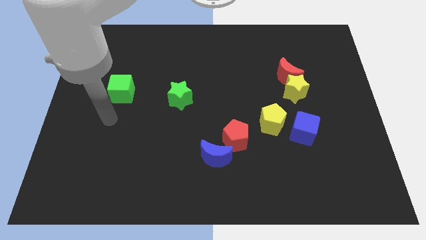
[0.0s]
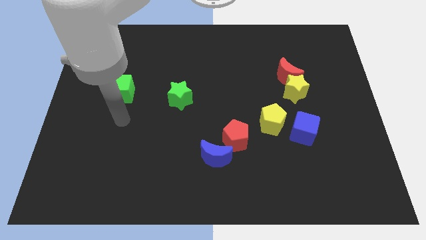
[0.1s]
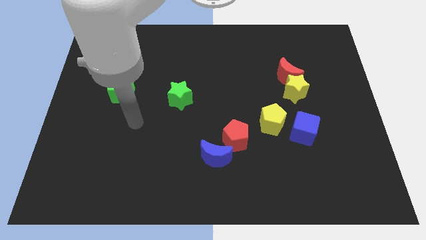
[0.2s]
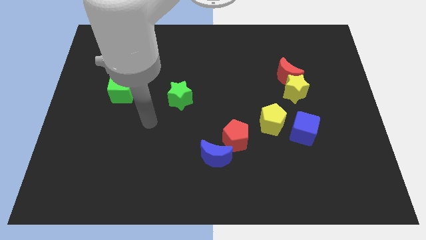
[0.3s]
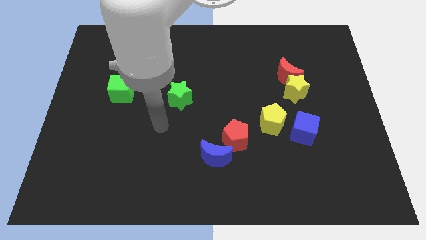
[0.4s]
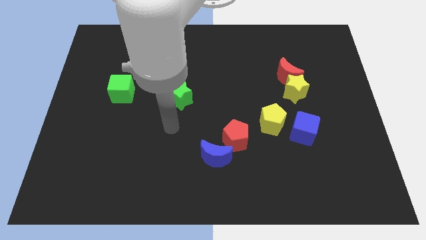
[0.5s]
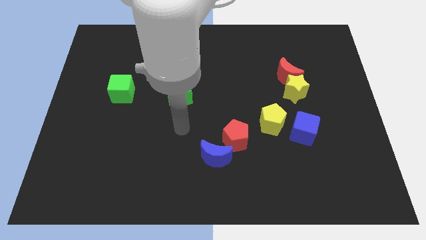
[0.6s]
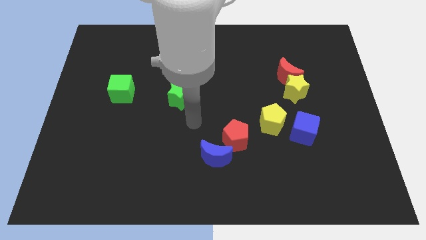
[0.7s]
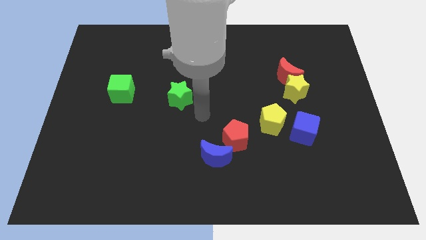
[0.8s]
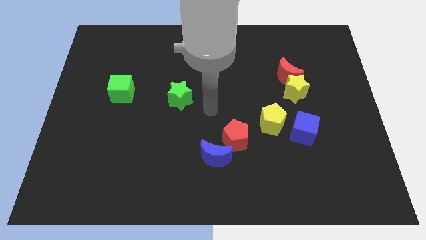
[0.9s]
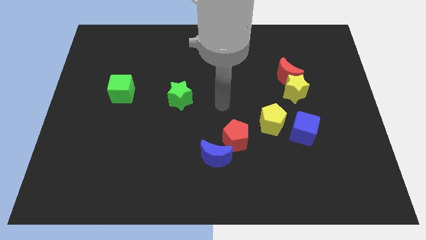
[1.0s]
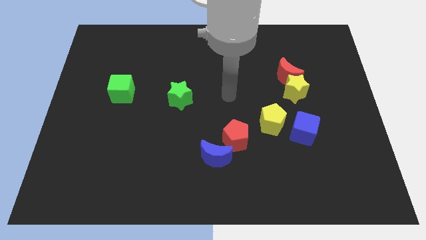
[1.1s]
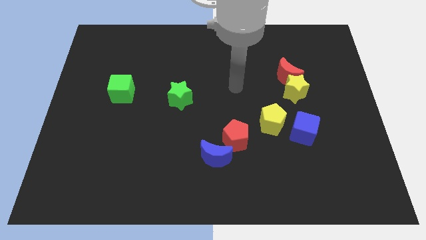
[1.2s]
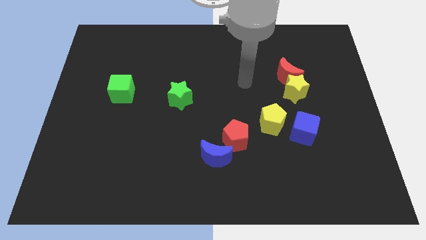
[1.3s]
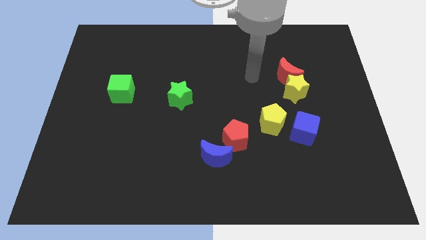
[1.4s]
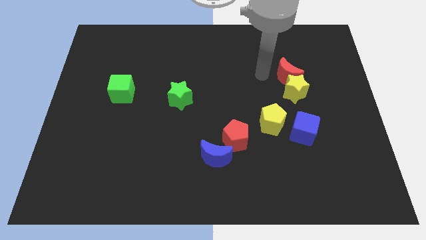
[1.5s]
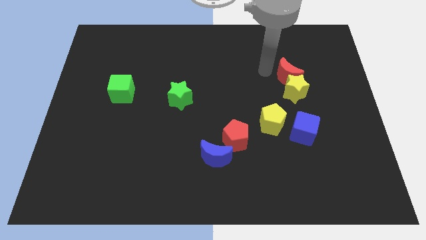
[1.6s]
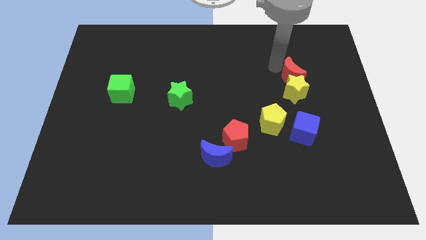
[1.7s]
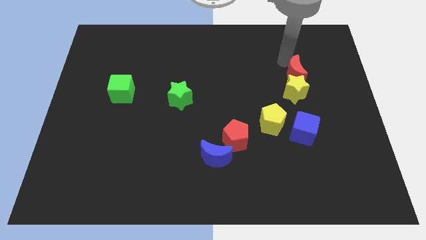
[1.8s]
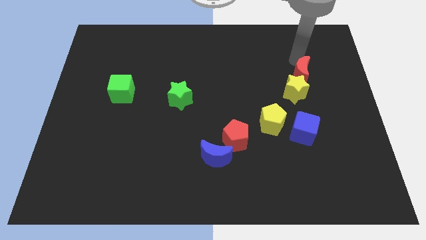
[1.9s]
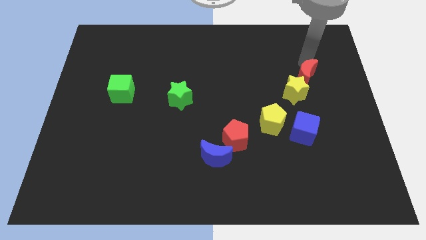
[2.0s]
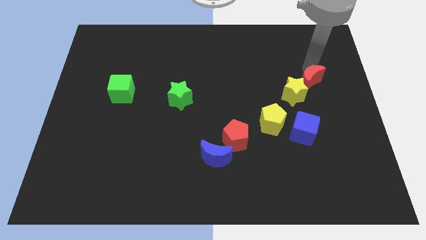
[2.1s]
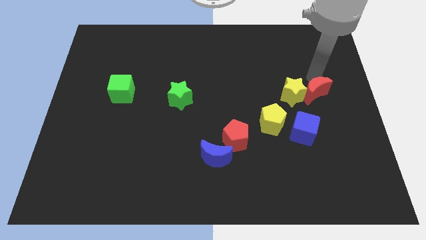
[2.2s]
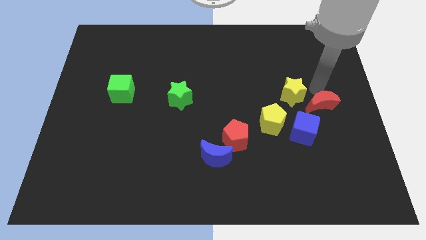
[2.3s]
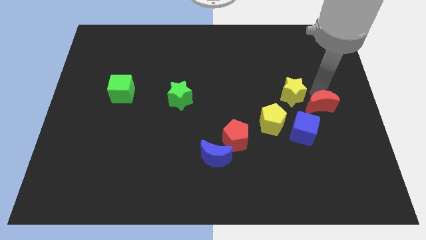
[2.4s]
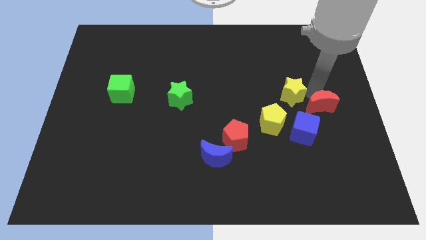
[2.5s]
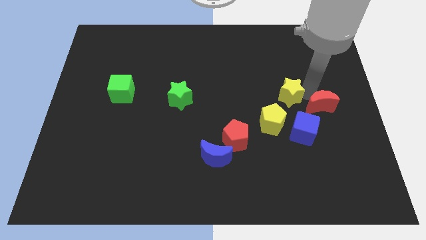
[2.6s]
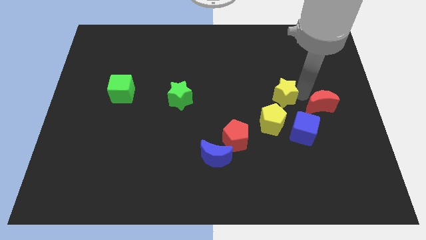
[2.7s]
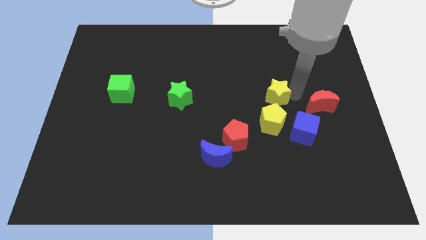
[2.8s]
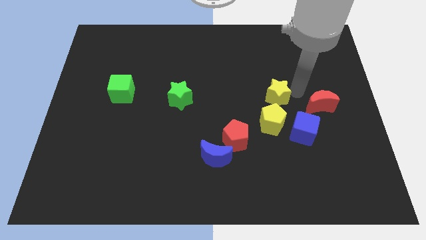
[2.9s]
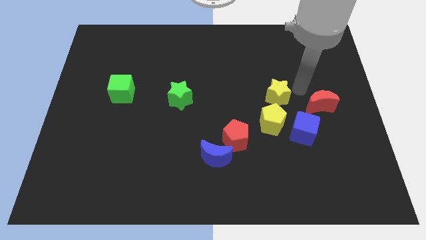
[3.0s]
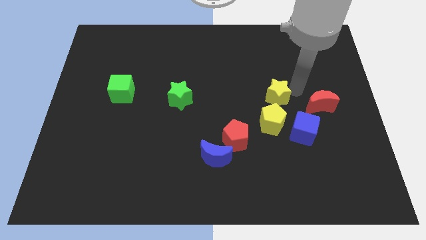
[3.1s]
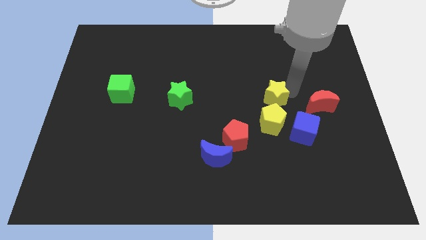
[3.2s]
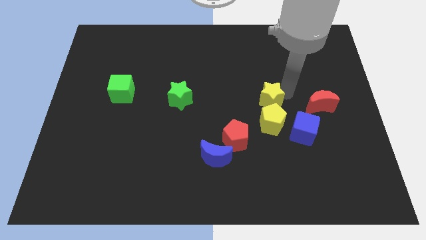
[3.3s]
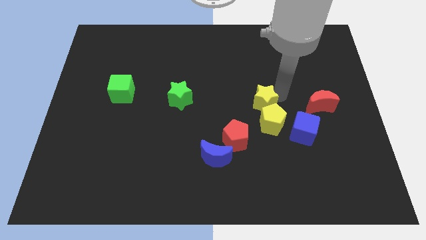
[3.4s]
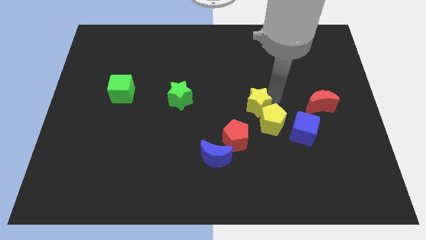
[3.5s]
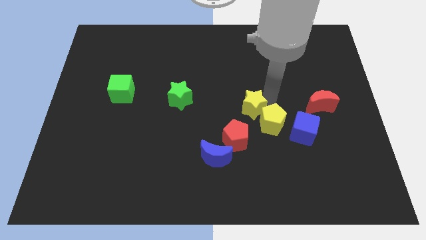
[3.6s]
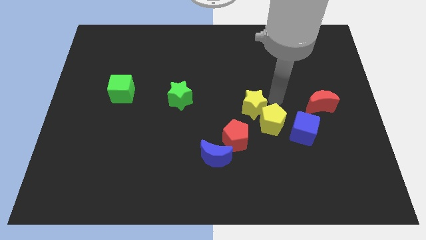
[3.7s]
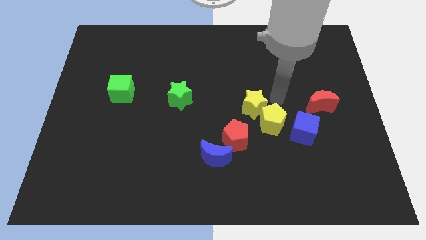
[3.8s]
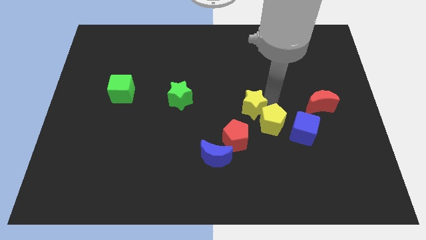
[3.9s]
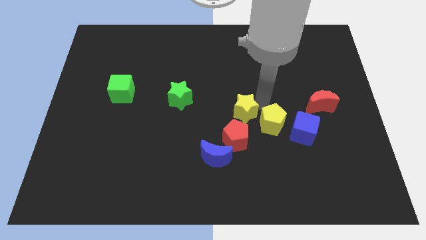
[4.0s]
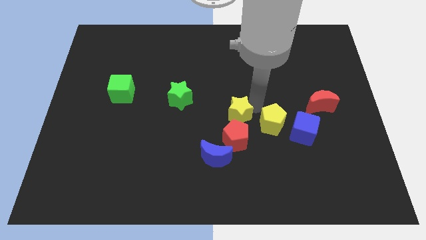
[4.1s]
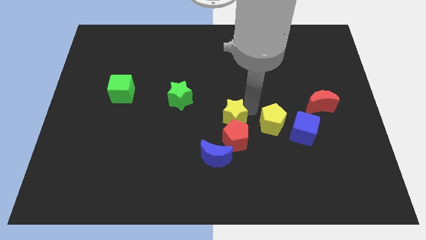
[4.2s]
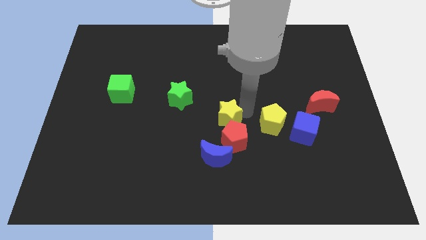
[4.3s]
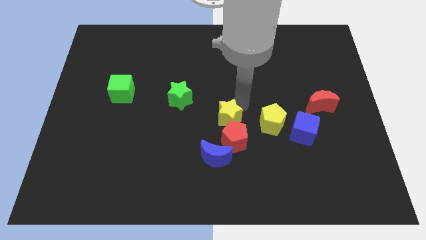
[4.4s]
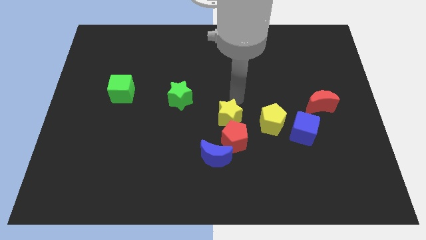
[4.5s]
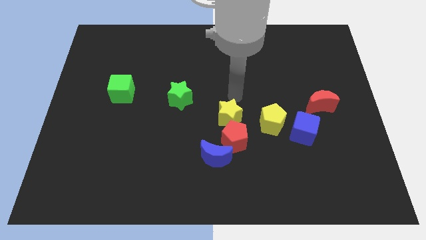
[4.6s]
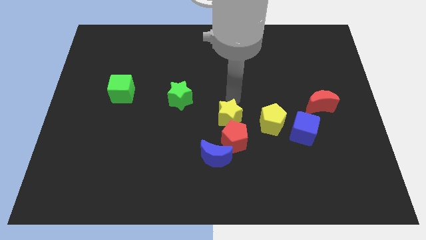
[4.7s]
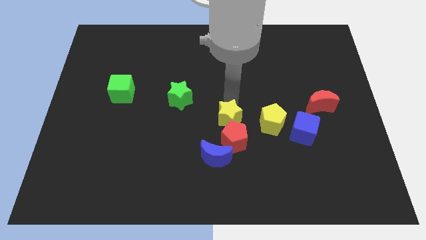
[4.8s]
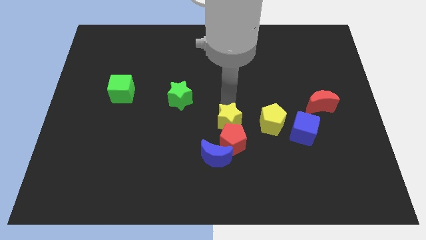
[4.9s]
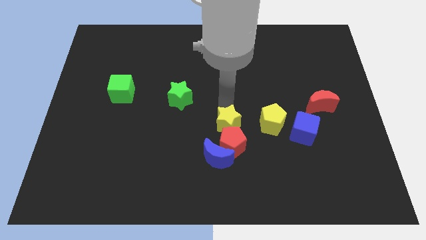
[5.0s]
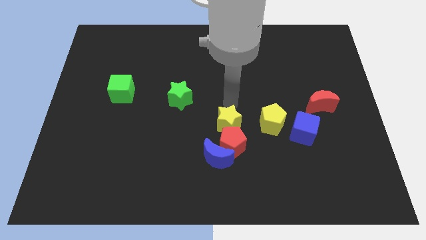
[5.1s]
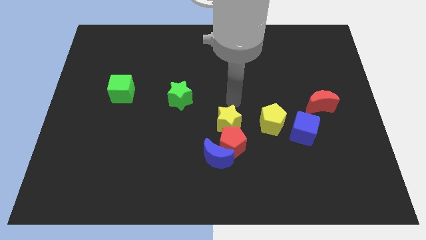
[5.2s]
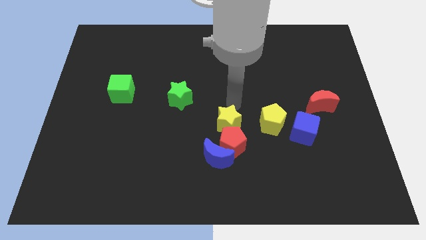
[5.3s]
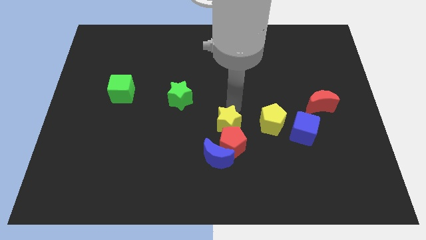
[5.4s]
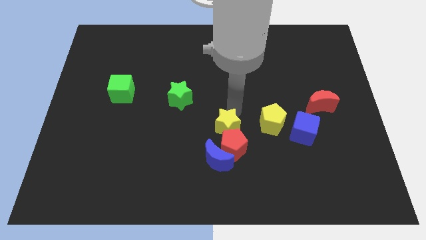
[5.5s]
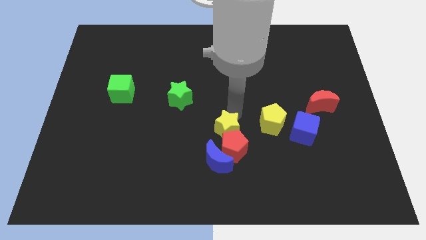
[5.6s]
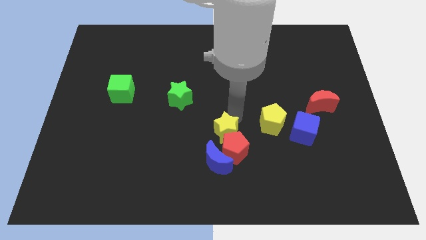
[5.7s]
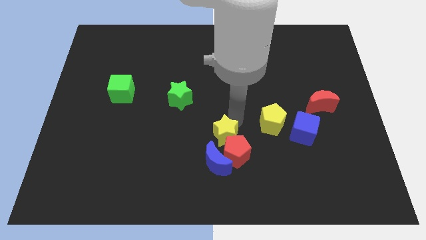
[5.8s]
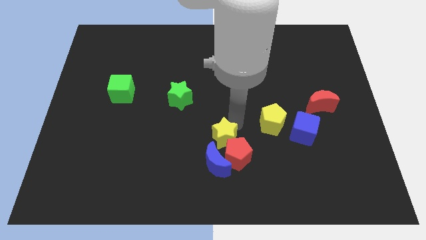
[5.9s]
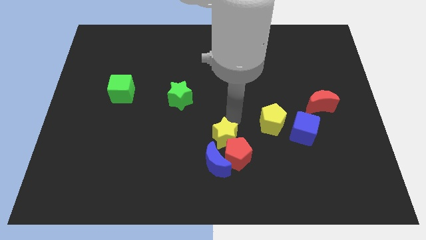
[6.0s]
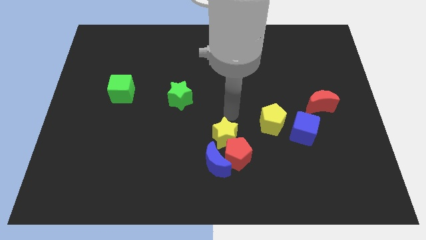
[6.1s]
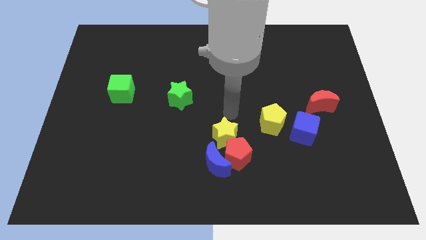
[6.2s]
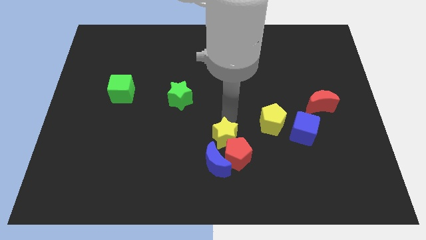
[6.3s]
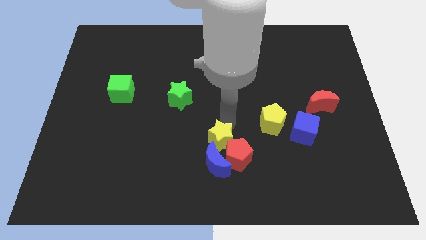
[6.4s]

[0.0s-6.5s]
slide the yellow star next to the blue moon
